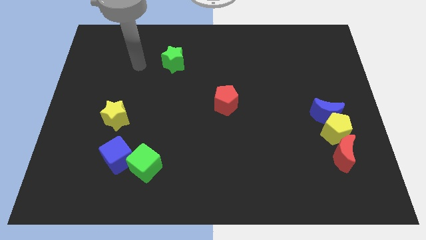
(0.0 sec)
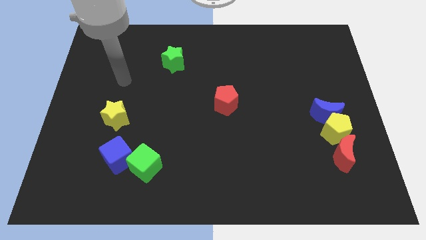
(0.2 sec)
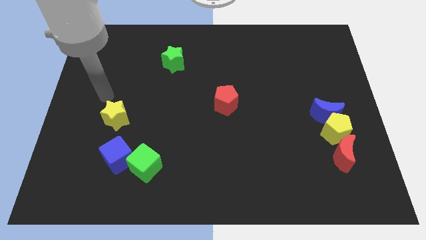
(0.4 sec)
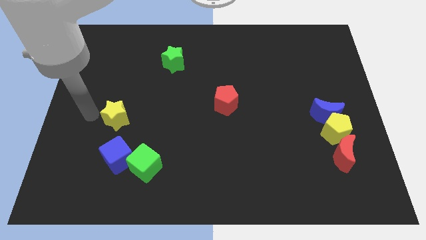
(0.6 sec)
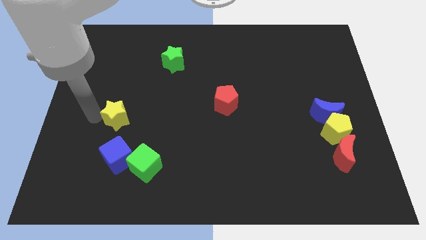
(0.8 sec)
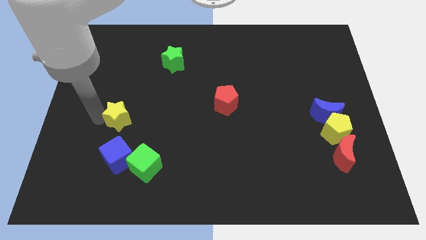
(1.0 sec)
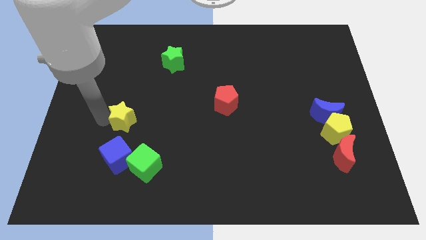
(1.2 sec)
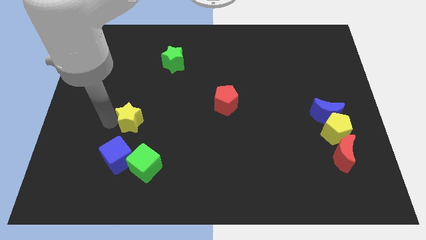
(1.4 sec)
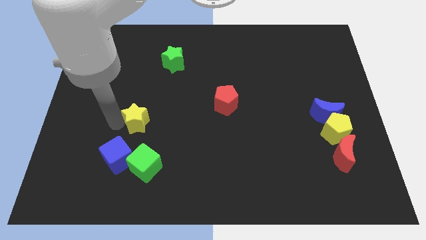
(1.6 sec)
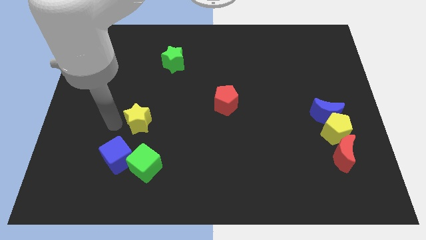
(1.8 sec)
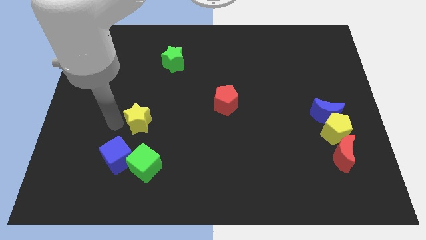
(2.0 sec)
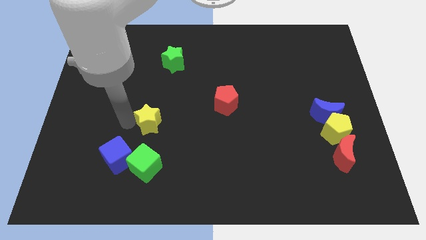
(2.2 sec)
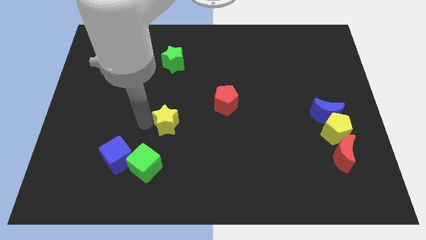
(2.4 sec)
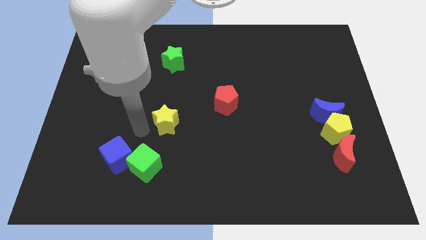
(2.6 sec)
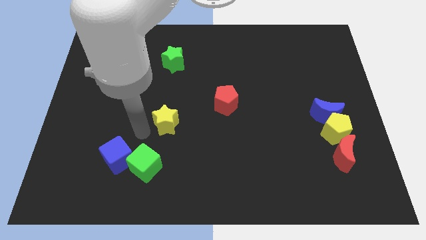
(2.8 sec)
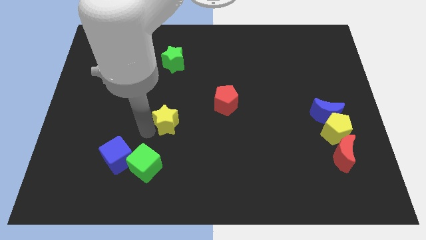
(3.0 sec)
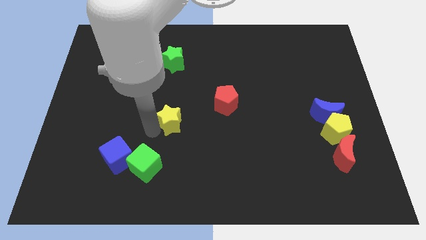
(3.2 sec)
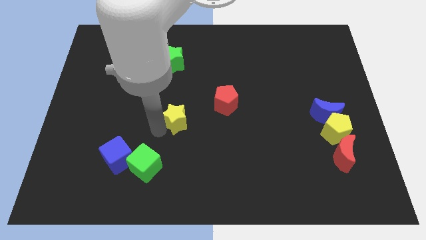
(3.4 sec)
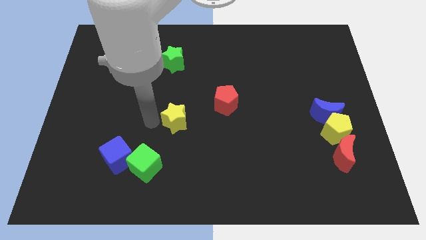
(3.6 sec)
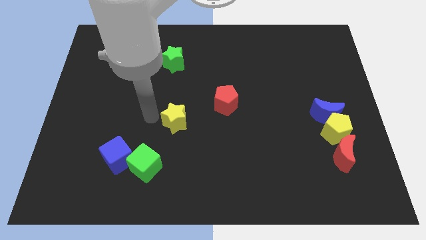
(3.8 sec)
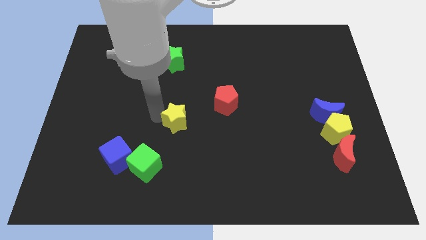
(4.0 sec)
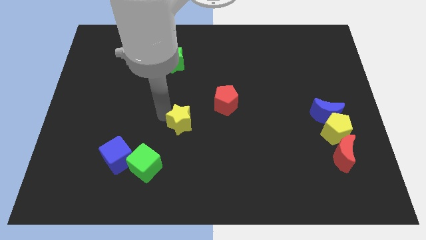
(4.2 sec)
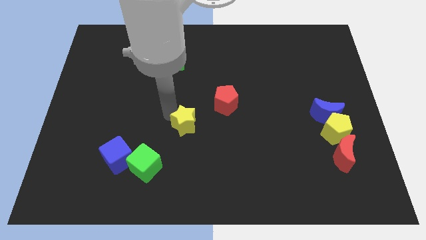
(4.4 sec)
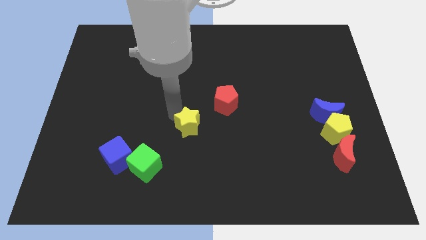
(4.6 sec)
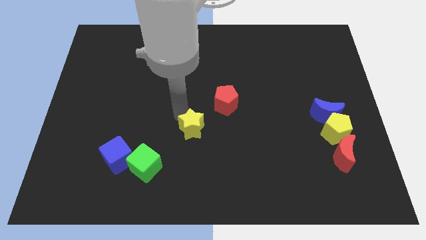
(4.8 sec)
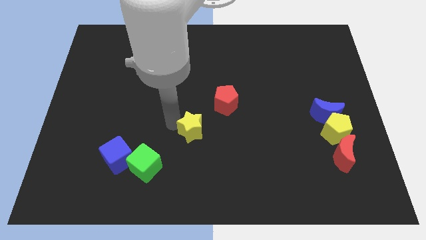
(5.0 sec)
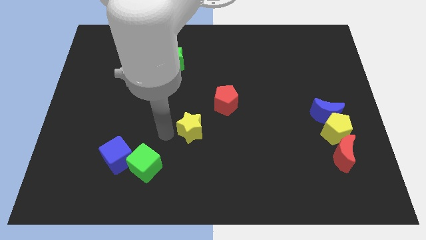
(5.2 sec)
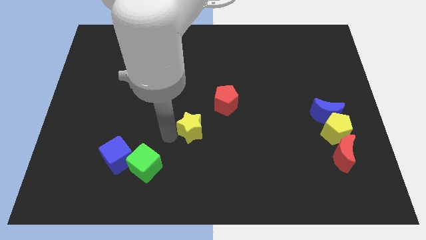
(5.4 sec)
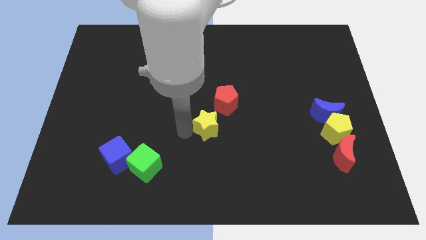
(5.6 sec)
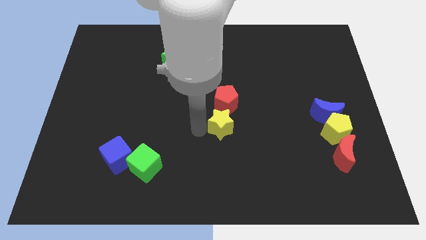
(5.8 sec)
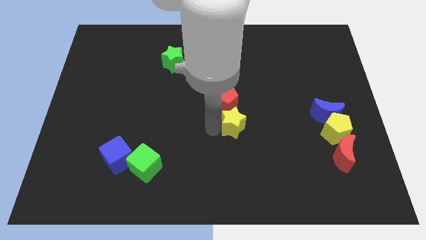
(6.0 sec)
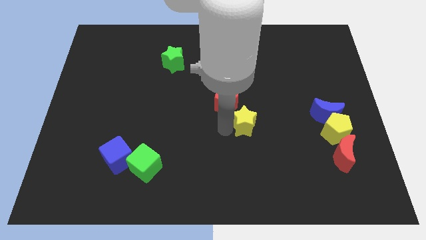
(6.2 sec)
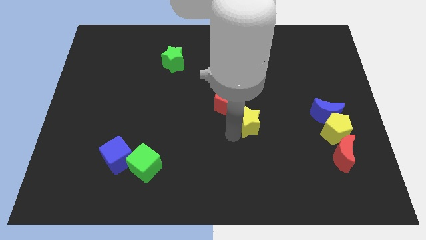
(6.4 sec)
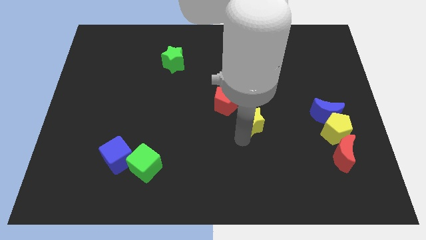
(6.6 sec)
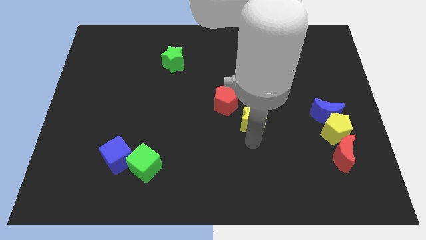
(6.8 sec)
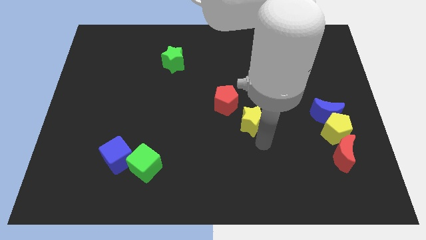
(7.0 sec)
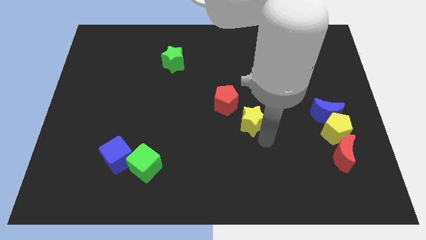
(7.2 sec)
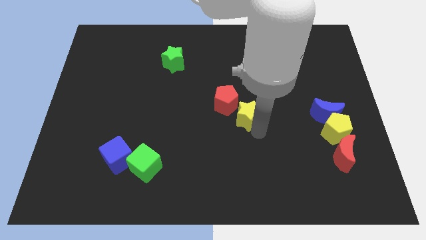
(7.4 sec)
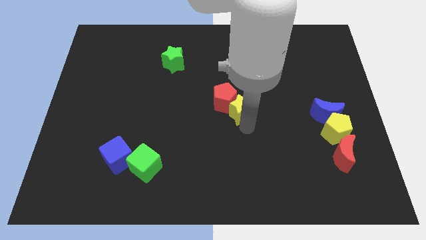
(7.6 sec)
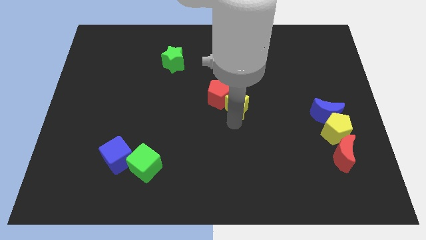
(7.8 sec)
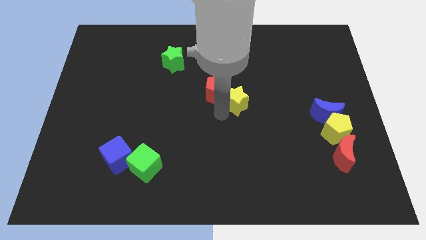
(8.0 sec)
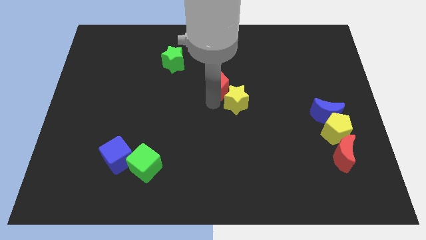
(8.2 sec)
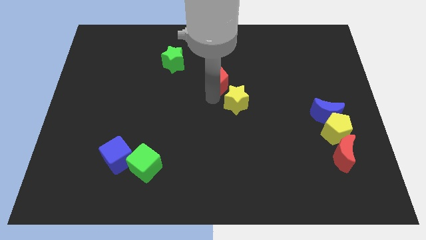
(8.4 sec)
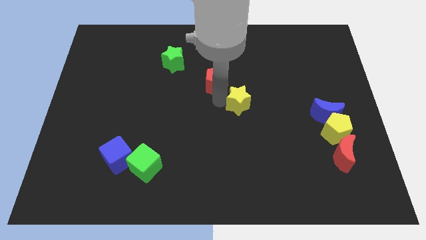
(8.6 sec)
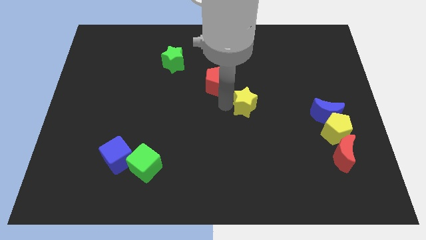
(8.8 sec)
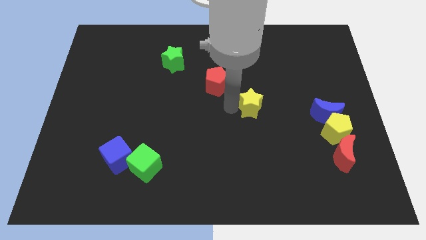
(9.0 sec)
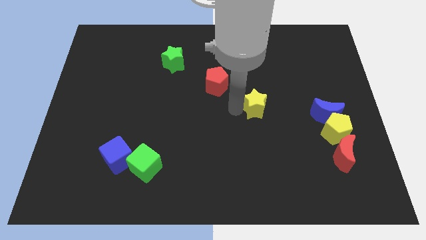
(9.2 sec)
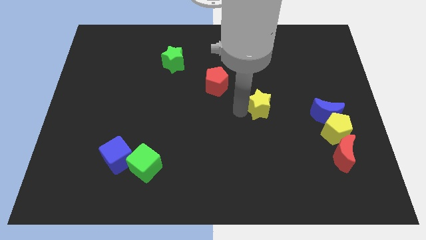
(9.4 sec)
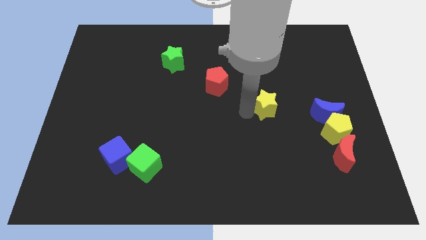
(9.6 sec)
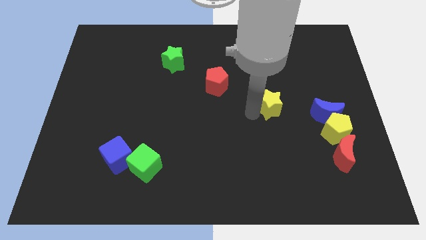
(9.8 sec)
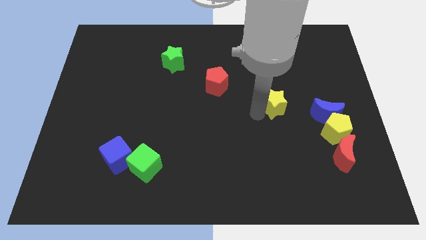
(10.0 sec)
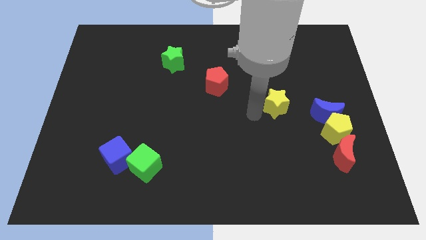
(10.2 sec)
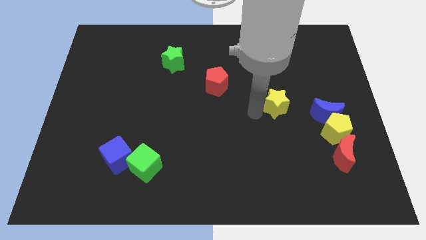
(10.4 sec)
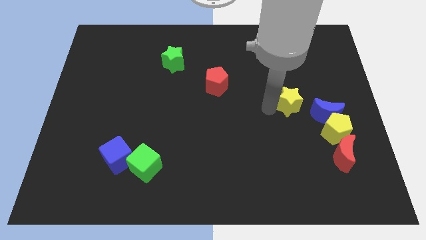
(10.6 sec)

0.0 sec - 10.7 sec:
put the yellow star to the top left side of the blue moon

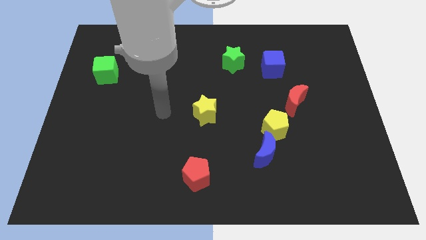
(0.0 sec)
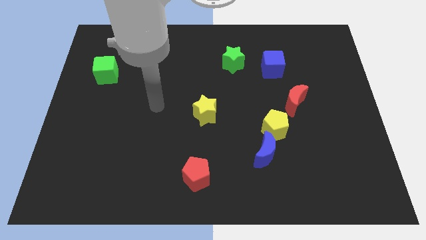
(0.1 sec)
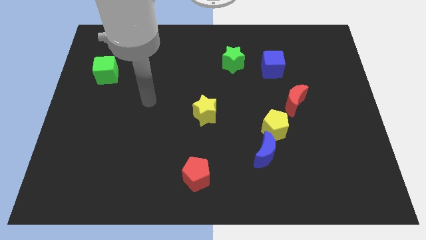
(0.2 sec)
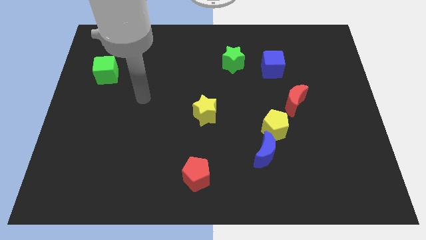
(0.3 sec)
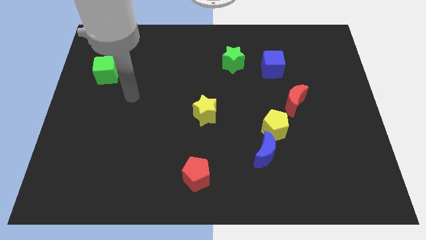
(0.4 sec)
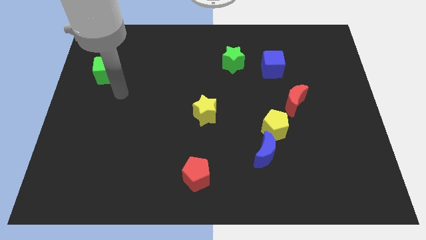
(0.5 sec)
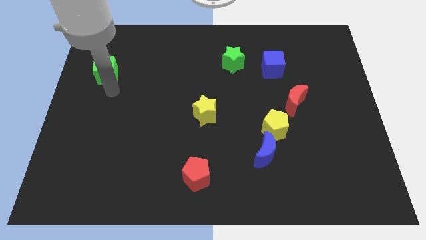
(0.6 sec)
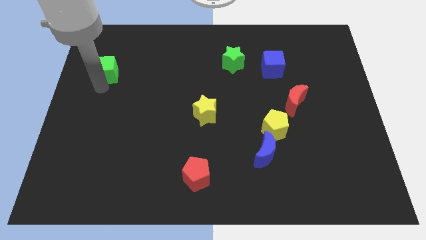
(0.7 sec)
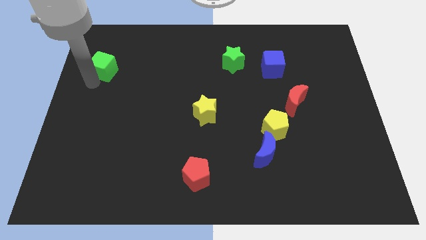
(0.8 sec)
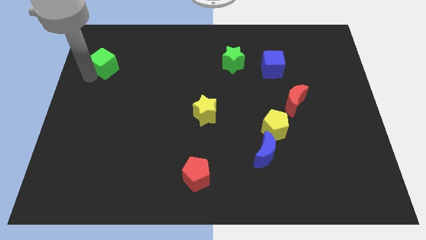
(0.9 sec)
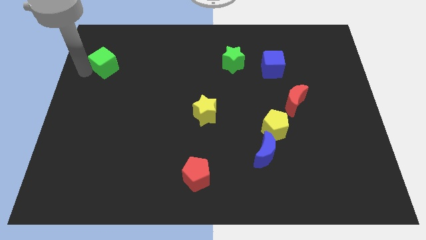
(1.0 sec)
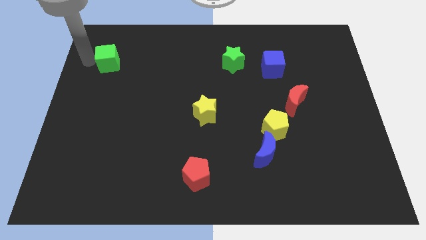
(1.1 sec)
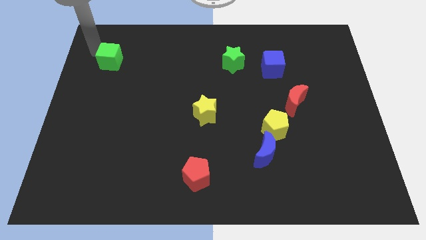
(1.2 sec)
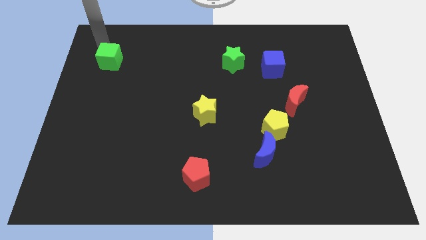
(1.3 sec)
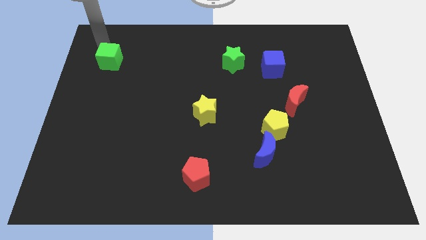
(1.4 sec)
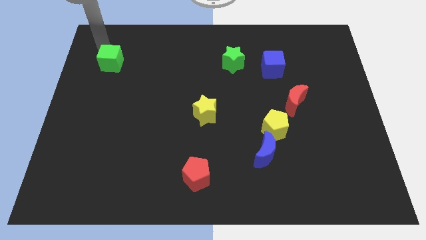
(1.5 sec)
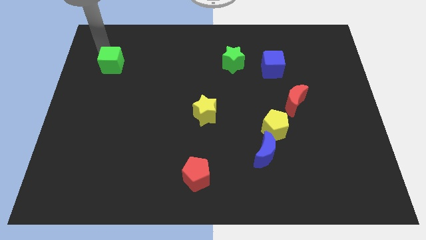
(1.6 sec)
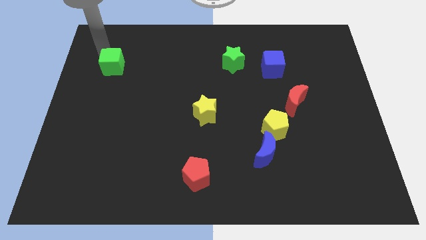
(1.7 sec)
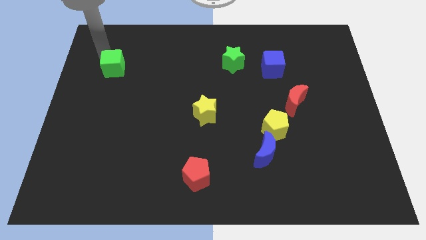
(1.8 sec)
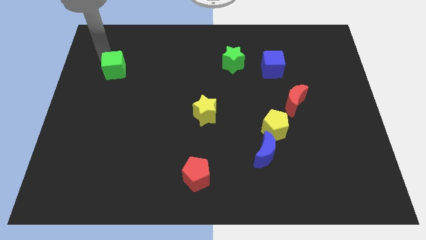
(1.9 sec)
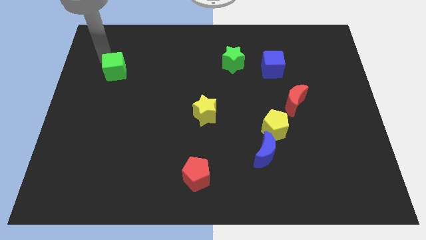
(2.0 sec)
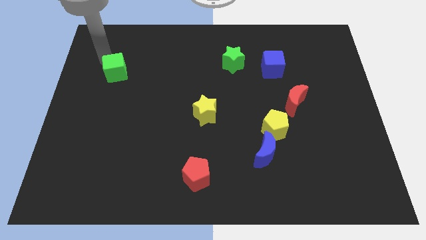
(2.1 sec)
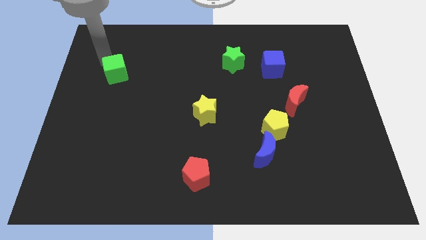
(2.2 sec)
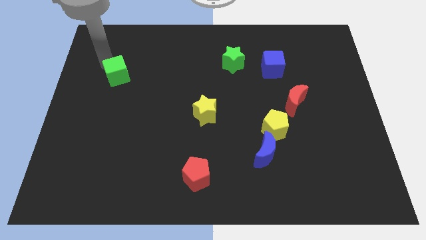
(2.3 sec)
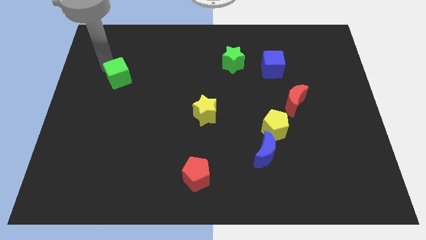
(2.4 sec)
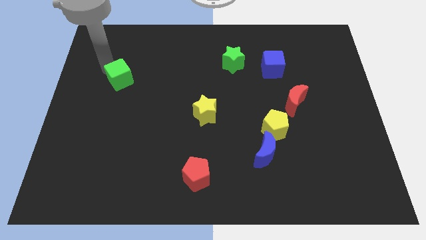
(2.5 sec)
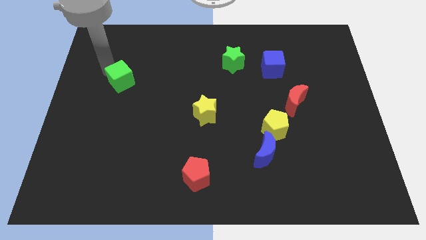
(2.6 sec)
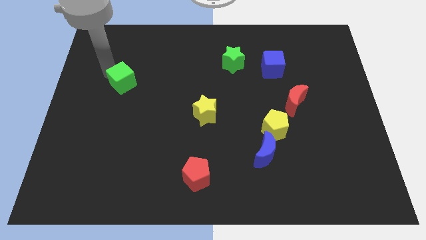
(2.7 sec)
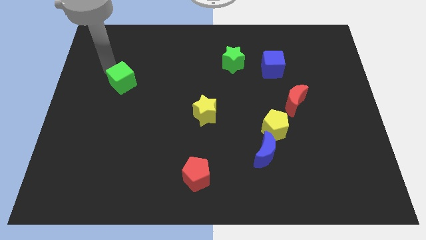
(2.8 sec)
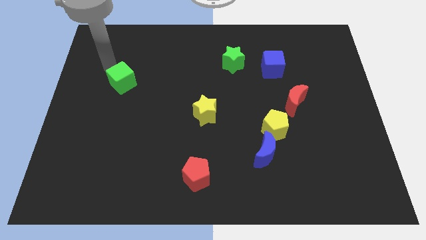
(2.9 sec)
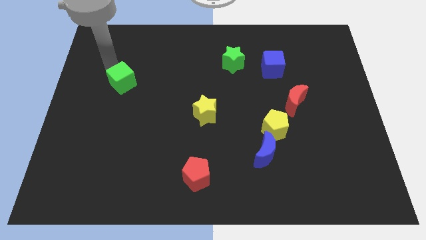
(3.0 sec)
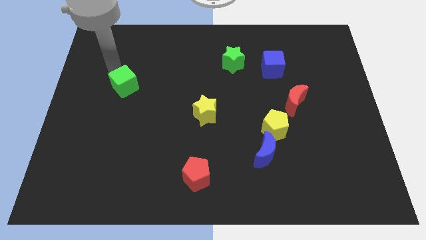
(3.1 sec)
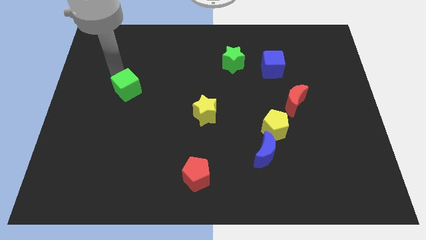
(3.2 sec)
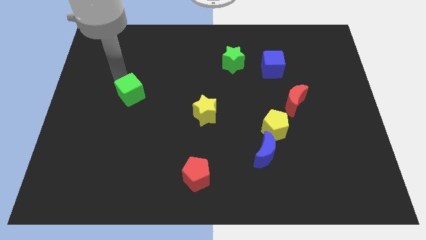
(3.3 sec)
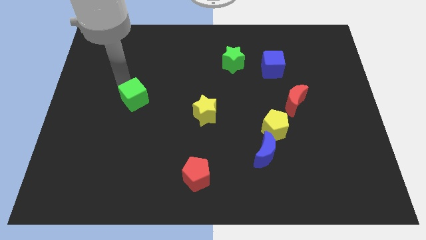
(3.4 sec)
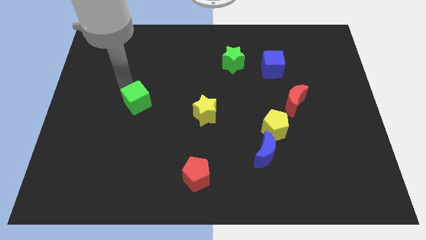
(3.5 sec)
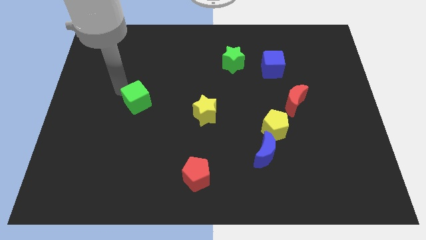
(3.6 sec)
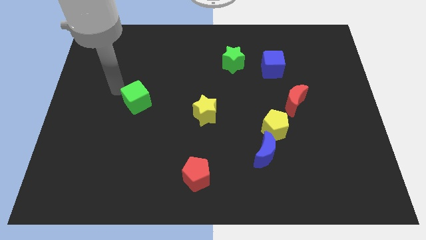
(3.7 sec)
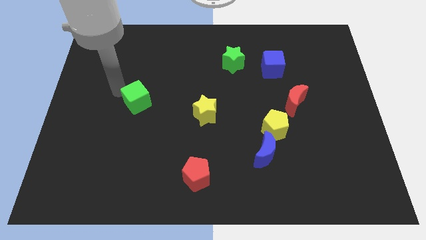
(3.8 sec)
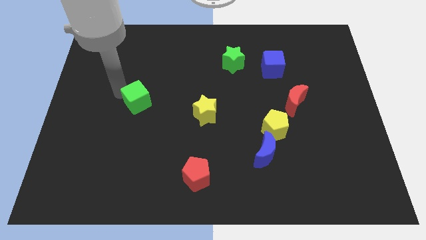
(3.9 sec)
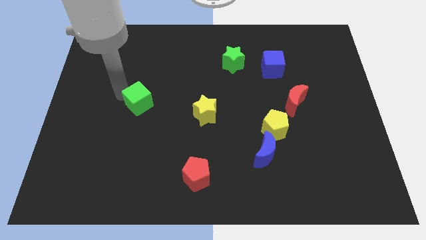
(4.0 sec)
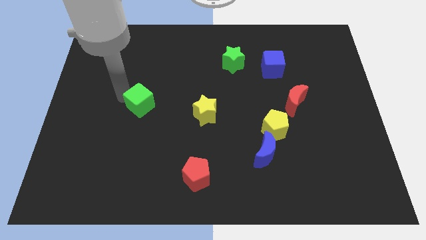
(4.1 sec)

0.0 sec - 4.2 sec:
push the green cube just left of the yellow star
